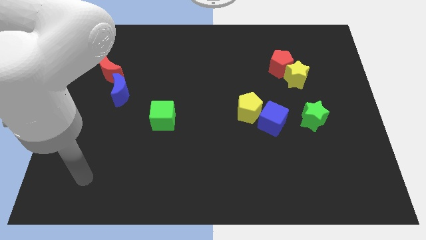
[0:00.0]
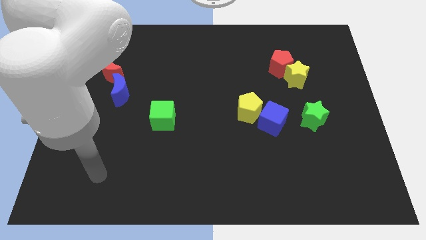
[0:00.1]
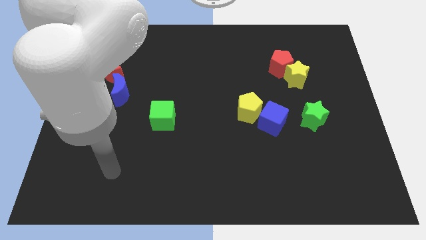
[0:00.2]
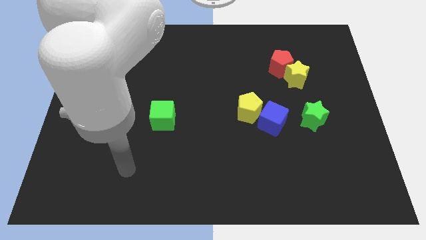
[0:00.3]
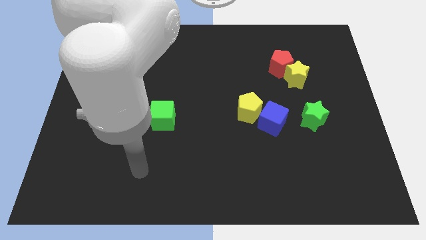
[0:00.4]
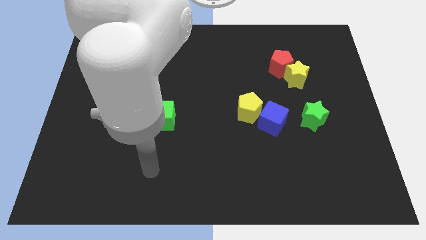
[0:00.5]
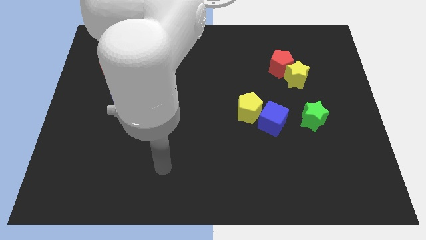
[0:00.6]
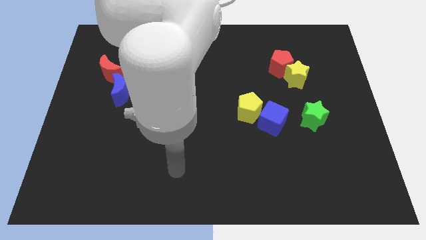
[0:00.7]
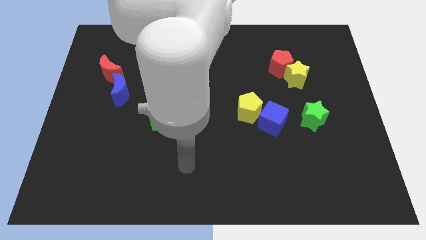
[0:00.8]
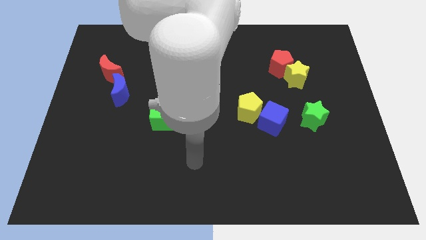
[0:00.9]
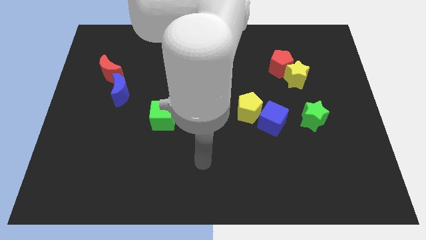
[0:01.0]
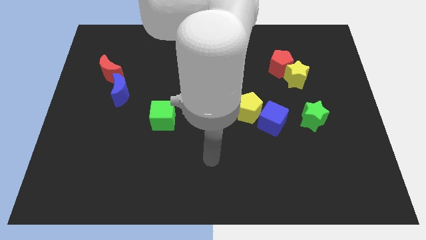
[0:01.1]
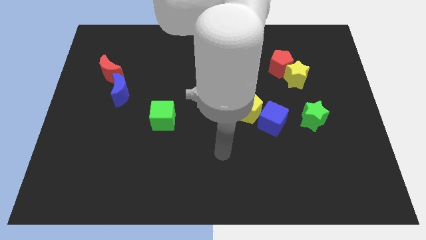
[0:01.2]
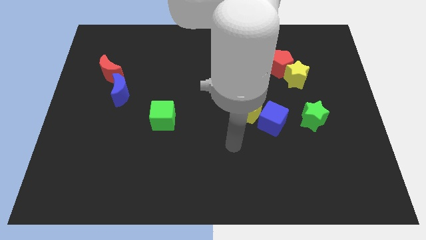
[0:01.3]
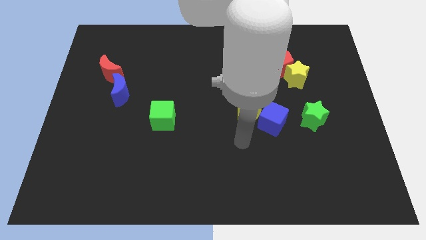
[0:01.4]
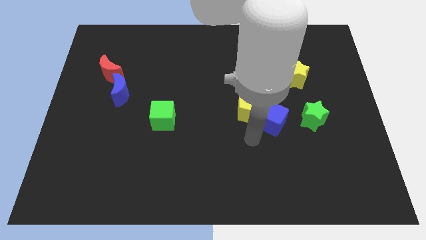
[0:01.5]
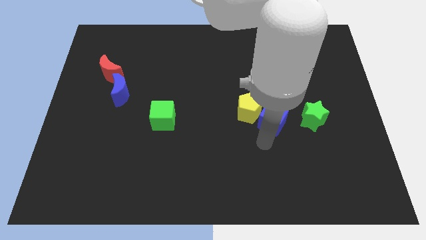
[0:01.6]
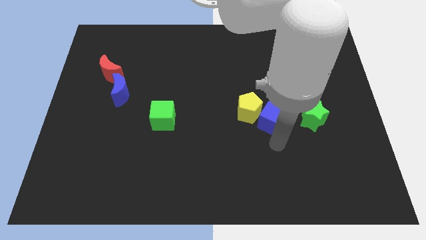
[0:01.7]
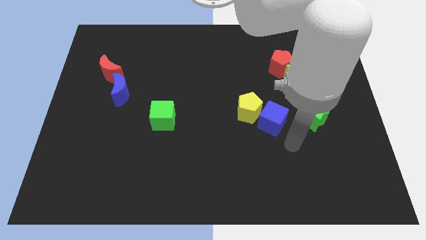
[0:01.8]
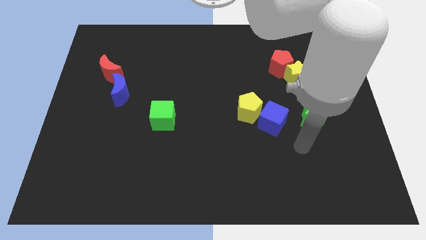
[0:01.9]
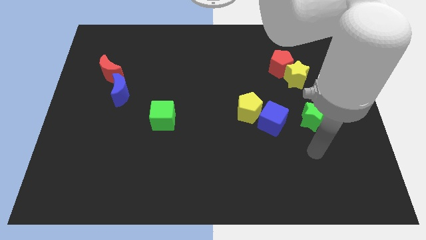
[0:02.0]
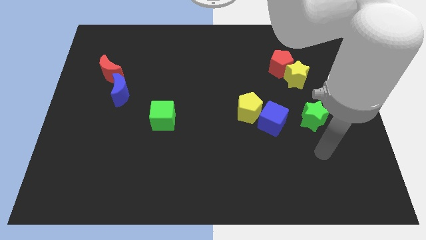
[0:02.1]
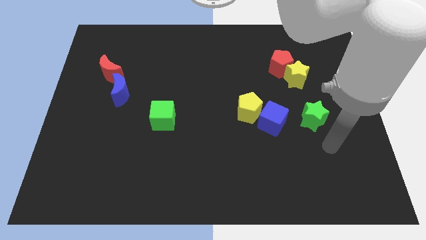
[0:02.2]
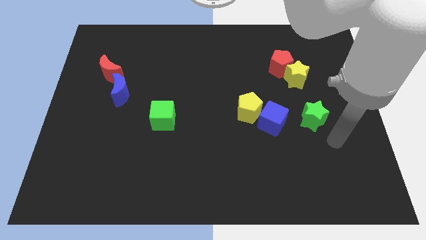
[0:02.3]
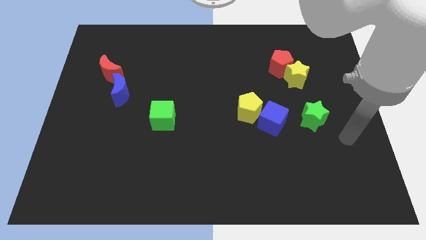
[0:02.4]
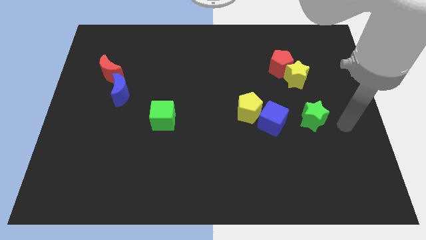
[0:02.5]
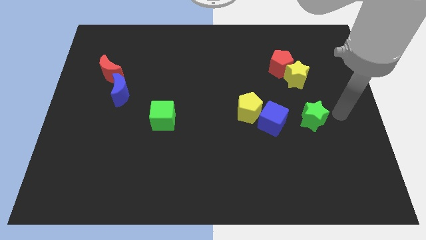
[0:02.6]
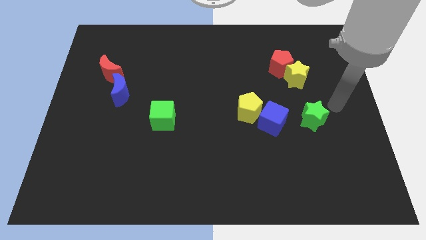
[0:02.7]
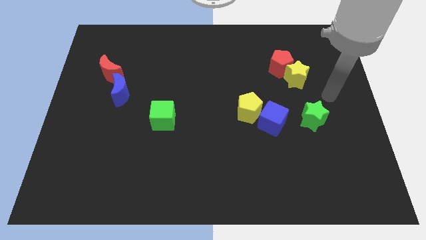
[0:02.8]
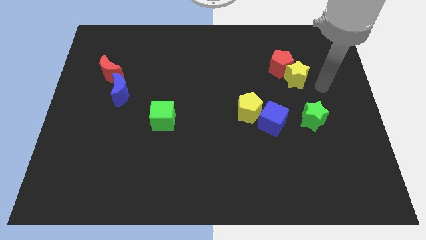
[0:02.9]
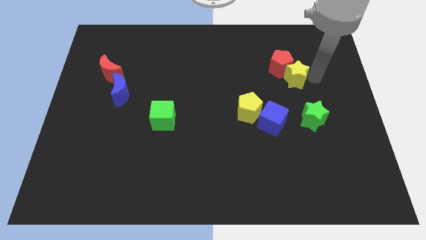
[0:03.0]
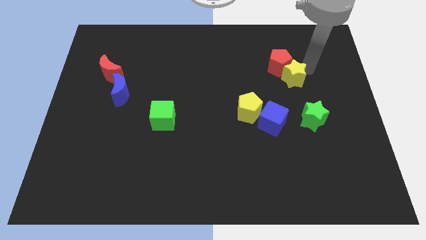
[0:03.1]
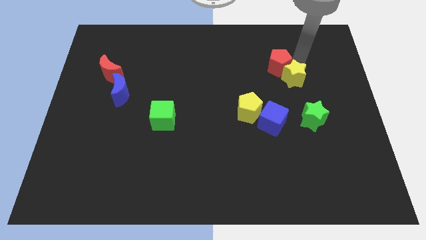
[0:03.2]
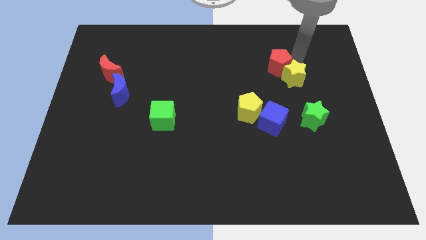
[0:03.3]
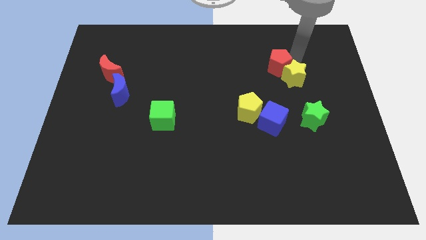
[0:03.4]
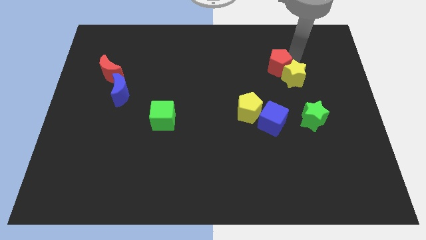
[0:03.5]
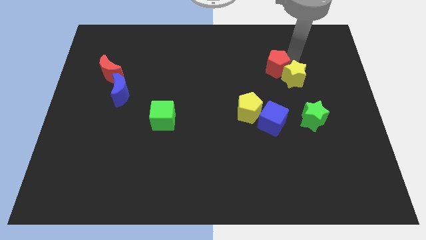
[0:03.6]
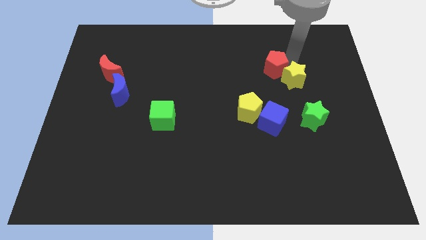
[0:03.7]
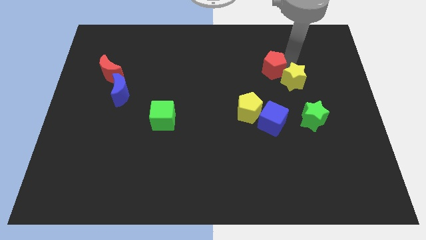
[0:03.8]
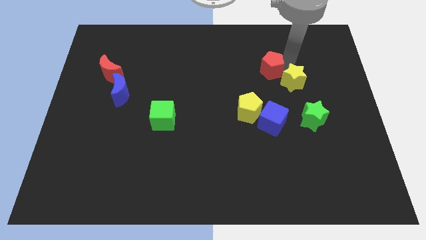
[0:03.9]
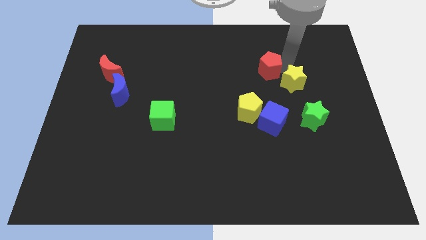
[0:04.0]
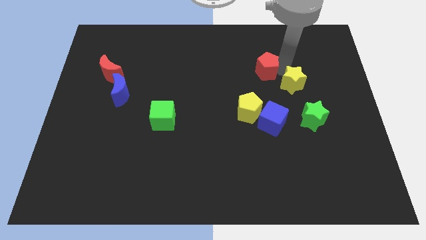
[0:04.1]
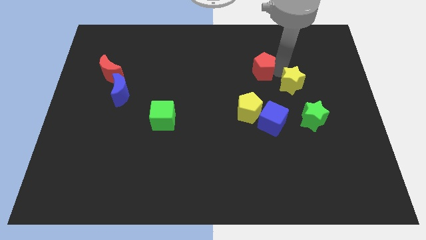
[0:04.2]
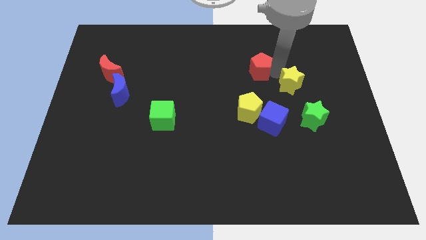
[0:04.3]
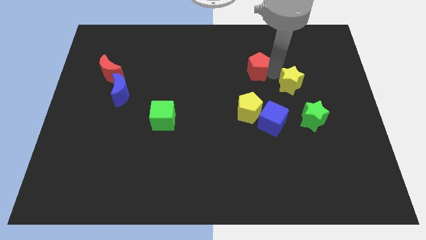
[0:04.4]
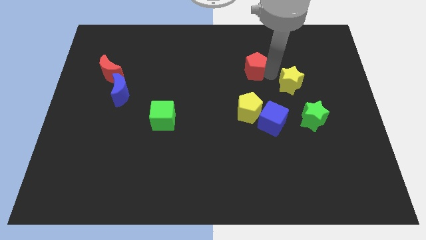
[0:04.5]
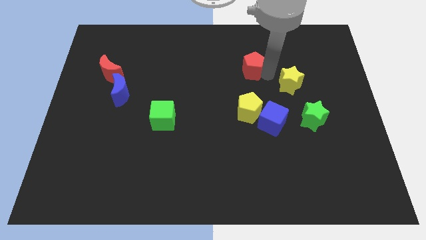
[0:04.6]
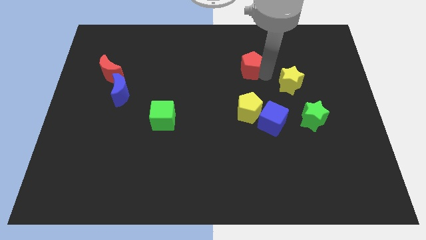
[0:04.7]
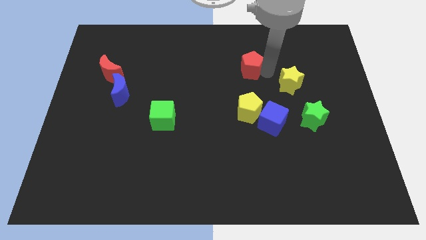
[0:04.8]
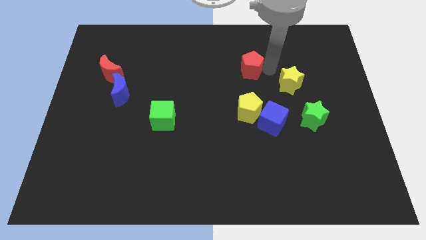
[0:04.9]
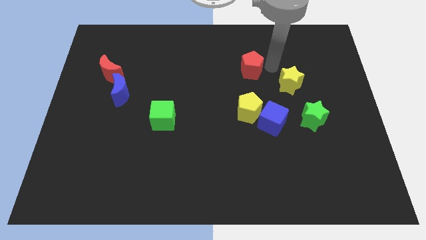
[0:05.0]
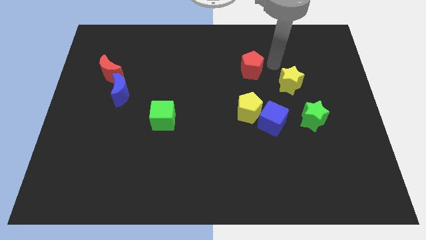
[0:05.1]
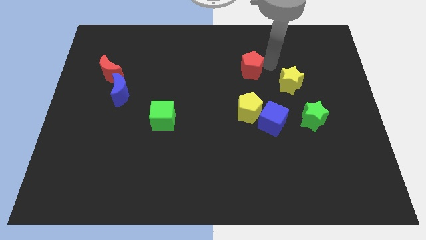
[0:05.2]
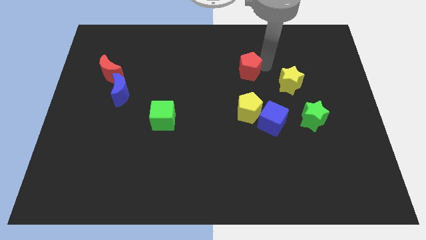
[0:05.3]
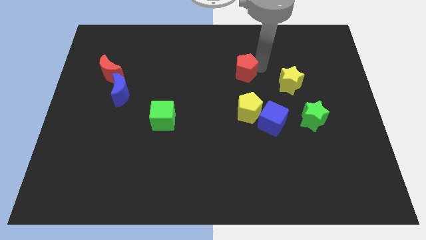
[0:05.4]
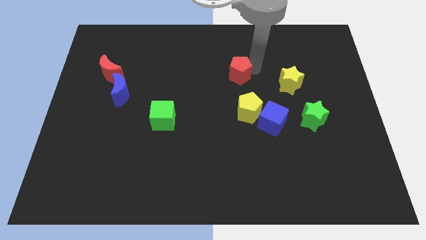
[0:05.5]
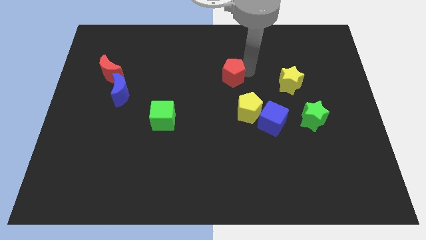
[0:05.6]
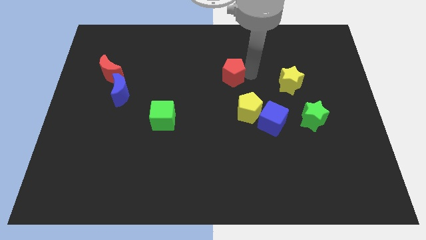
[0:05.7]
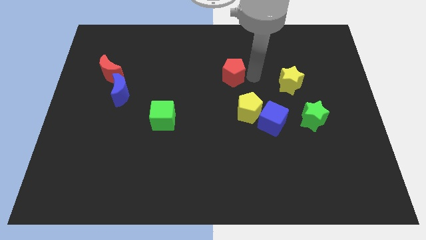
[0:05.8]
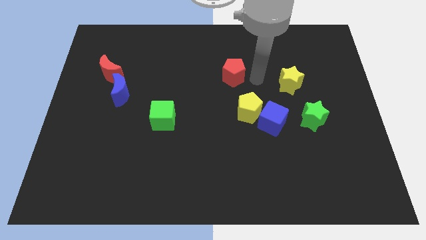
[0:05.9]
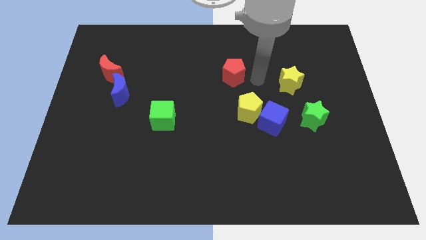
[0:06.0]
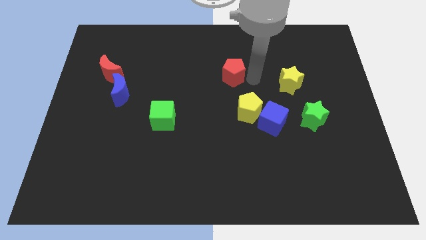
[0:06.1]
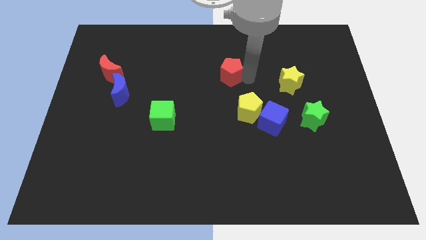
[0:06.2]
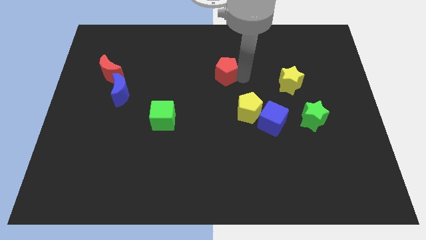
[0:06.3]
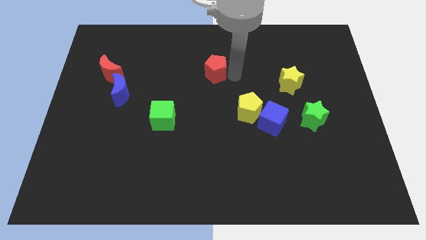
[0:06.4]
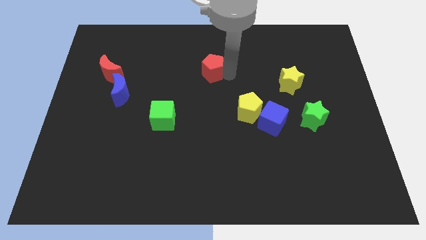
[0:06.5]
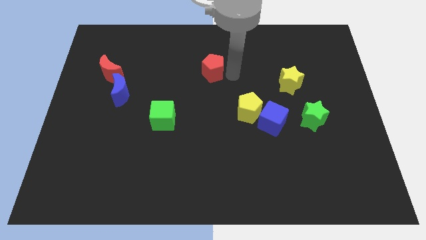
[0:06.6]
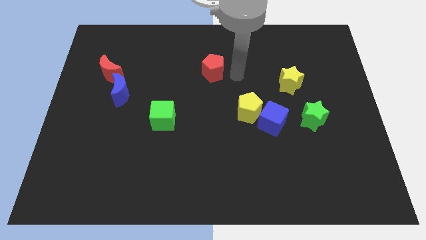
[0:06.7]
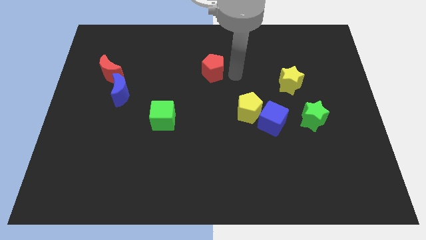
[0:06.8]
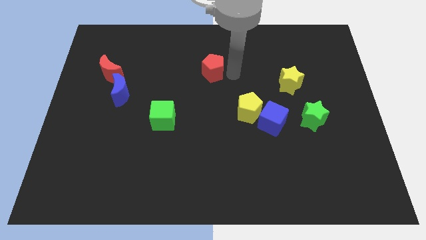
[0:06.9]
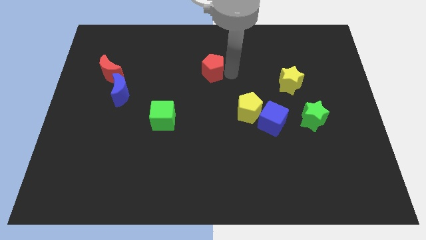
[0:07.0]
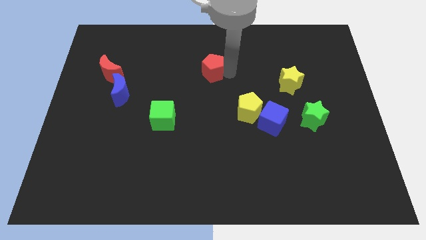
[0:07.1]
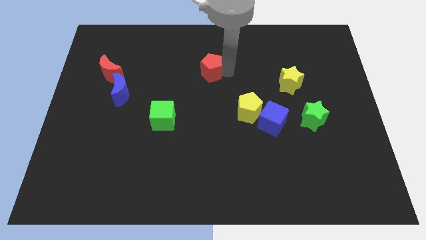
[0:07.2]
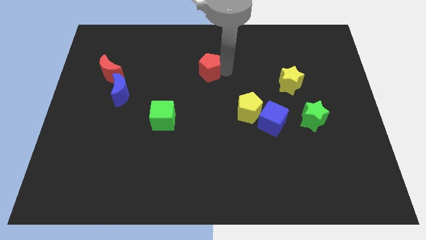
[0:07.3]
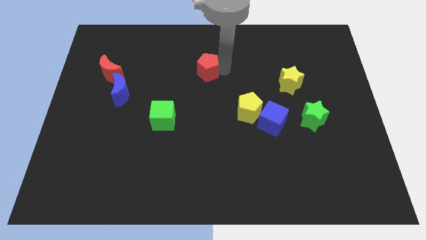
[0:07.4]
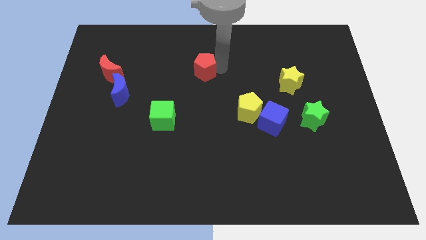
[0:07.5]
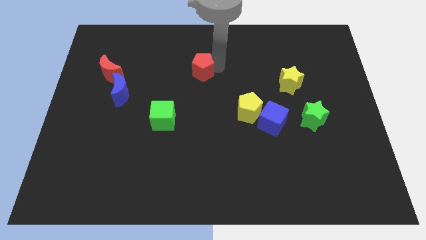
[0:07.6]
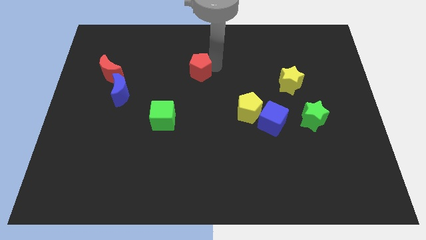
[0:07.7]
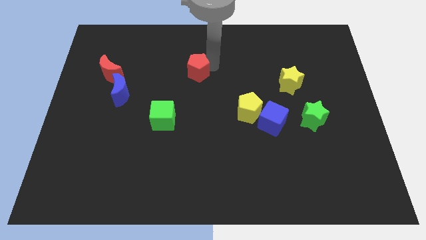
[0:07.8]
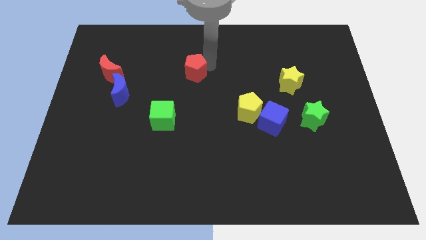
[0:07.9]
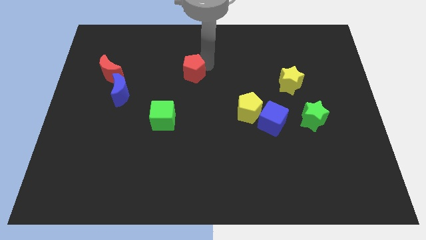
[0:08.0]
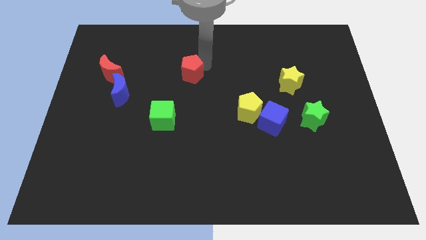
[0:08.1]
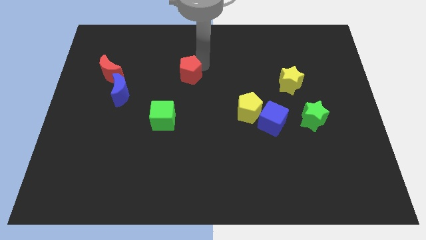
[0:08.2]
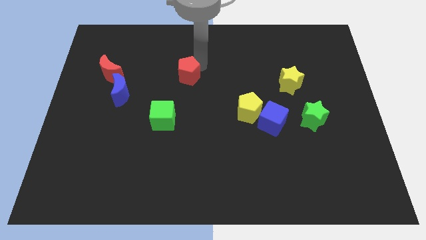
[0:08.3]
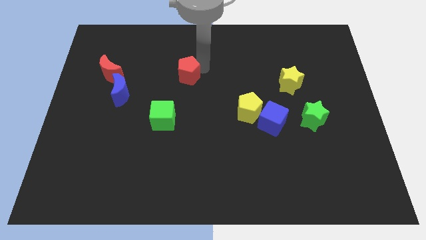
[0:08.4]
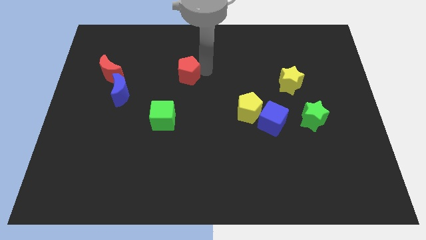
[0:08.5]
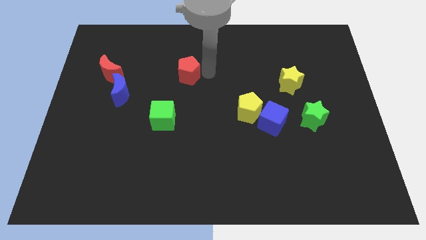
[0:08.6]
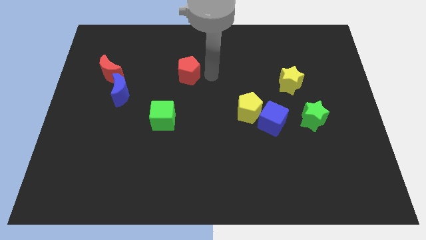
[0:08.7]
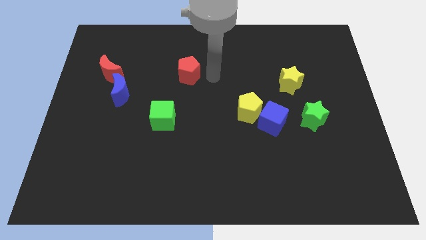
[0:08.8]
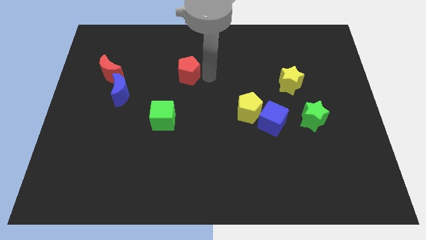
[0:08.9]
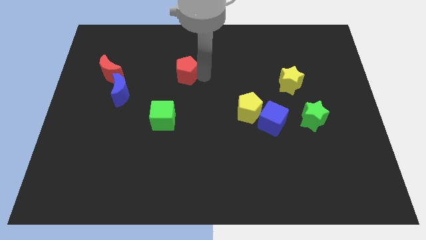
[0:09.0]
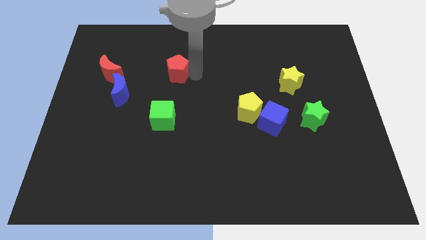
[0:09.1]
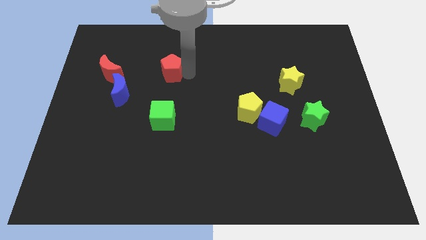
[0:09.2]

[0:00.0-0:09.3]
put the red pentagon right of the red moon
